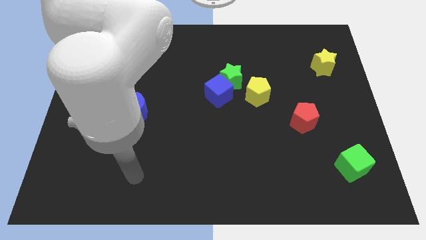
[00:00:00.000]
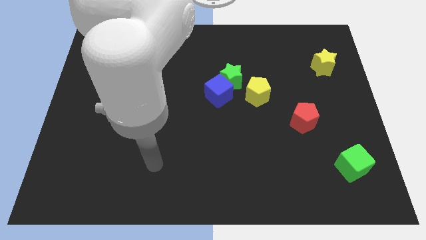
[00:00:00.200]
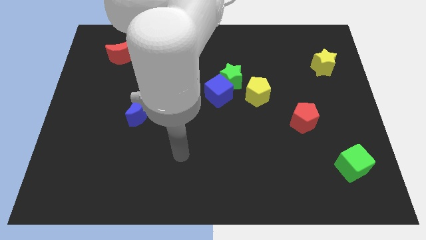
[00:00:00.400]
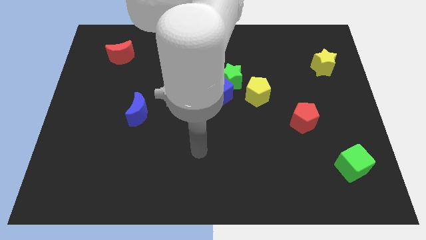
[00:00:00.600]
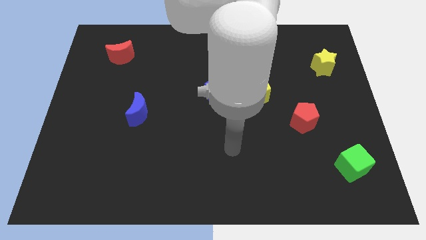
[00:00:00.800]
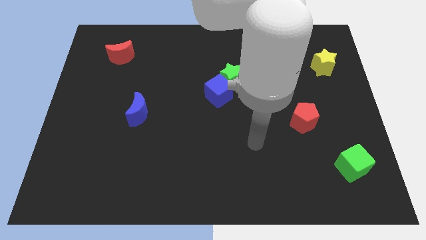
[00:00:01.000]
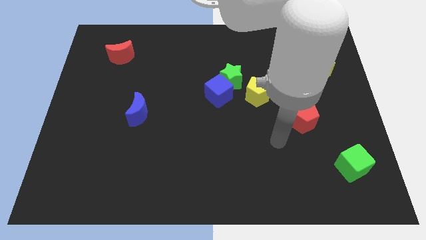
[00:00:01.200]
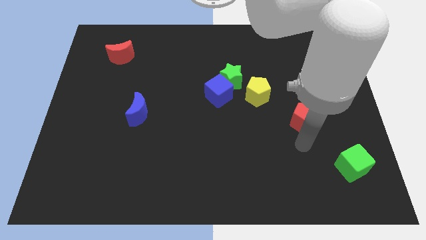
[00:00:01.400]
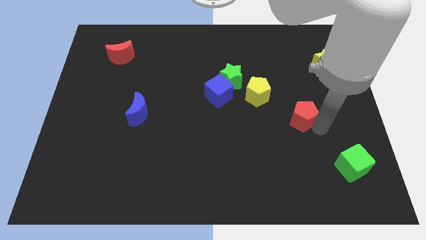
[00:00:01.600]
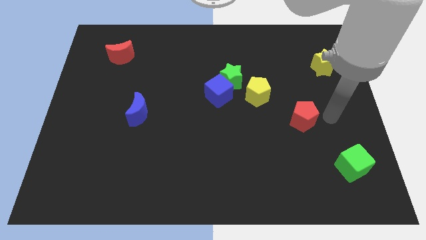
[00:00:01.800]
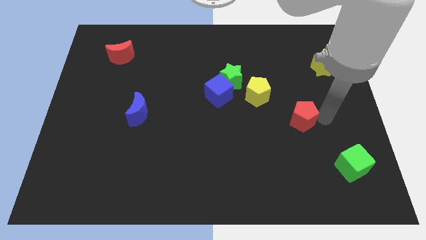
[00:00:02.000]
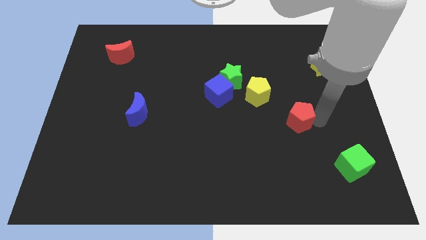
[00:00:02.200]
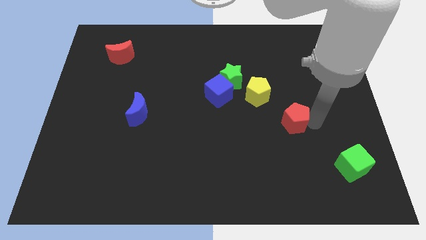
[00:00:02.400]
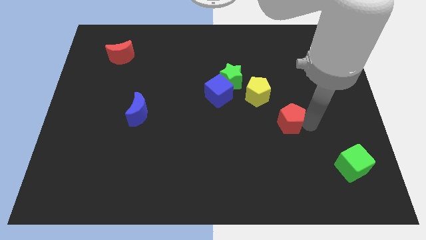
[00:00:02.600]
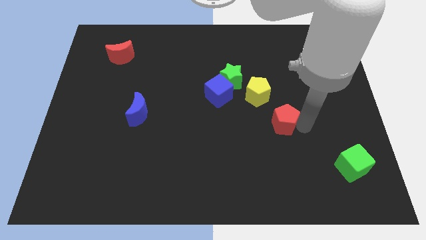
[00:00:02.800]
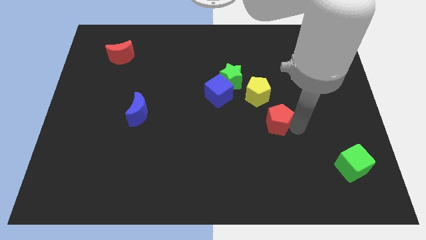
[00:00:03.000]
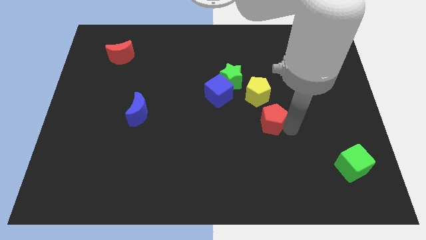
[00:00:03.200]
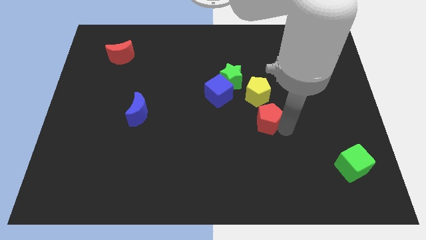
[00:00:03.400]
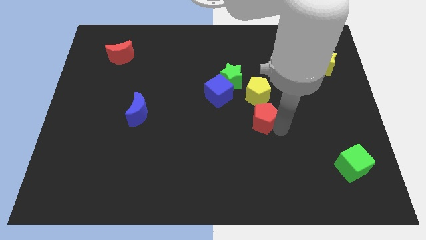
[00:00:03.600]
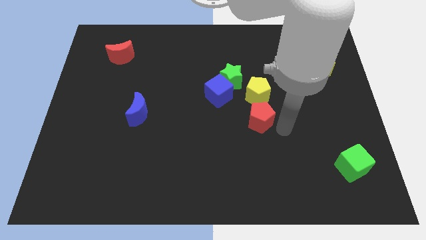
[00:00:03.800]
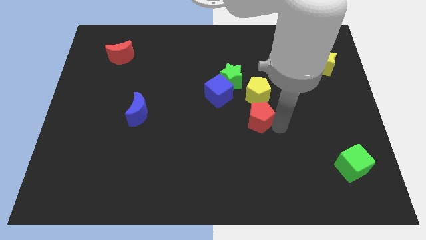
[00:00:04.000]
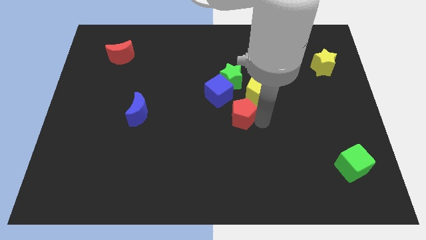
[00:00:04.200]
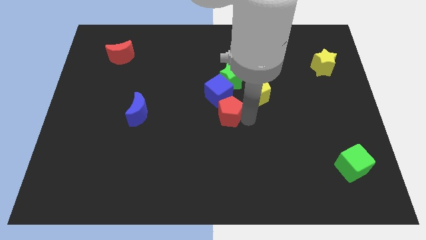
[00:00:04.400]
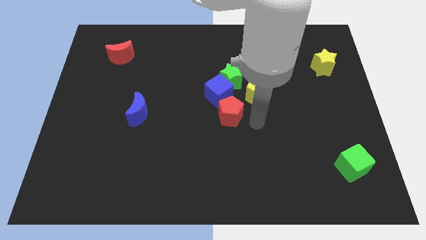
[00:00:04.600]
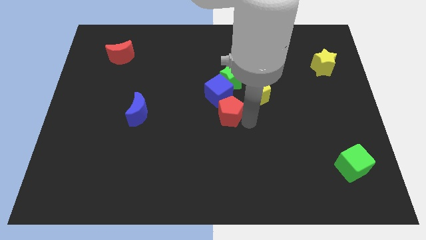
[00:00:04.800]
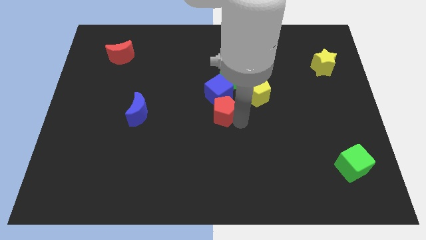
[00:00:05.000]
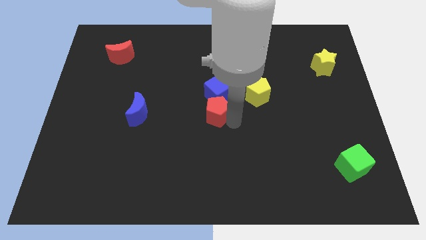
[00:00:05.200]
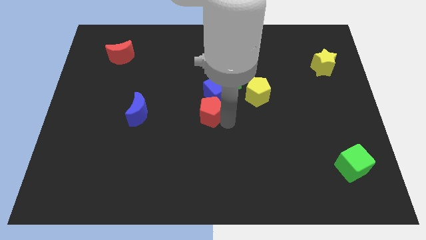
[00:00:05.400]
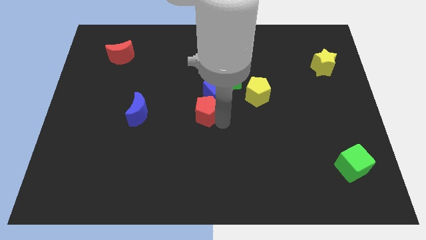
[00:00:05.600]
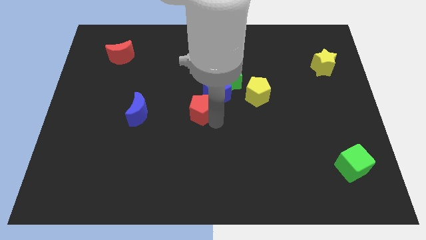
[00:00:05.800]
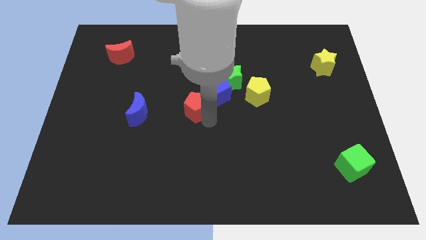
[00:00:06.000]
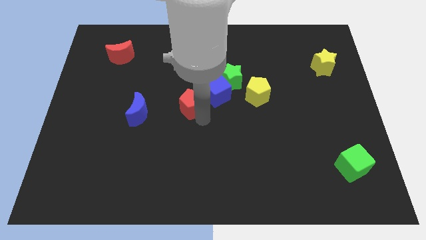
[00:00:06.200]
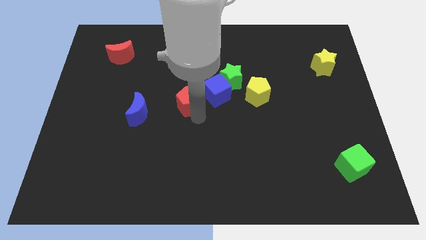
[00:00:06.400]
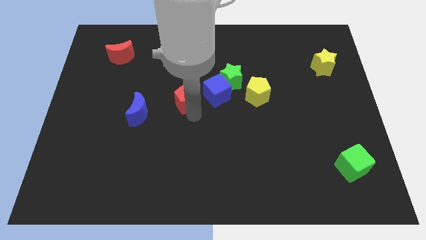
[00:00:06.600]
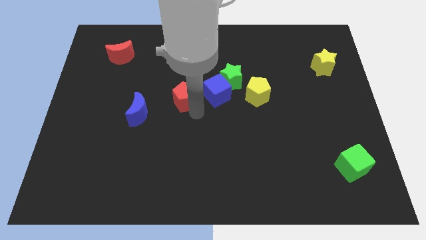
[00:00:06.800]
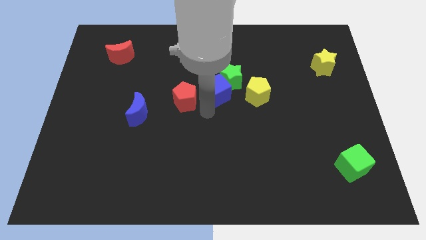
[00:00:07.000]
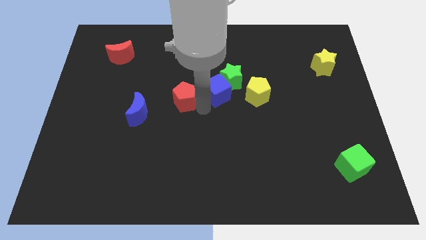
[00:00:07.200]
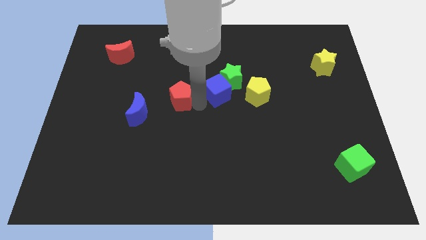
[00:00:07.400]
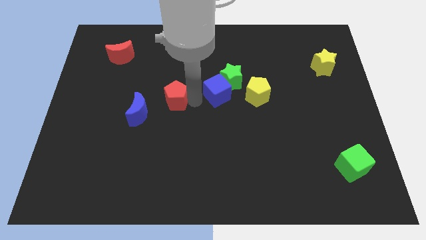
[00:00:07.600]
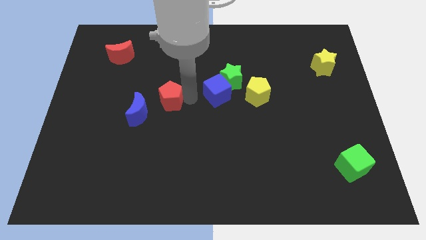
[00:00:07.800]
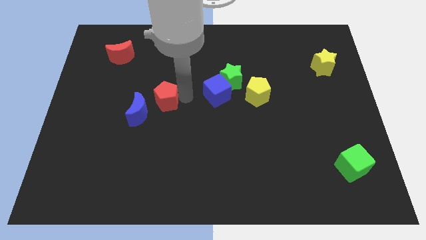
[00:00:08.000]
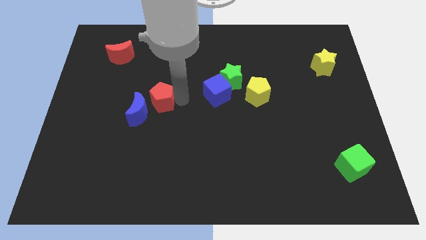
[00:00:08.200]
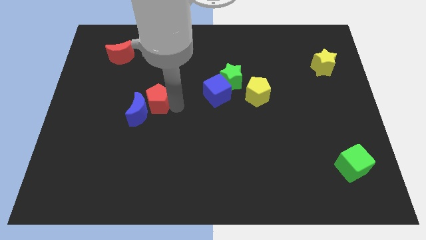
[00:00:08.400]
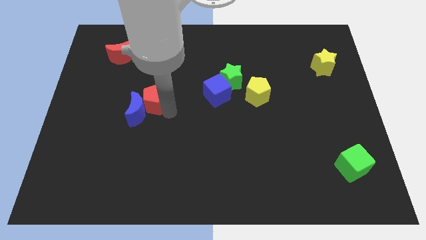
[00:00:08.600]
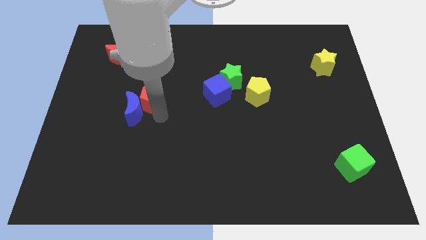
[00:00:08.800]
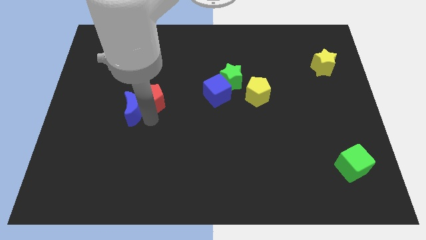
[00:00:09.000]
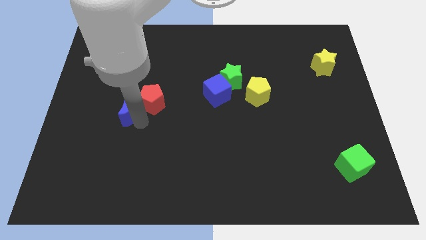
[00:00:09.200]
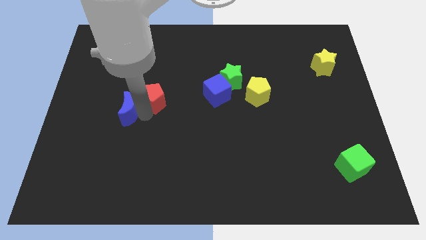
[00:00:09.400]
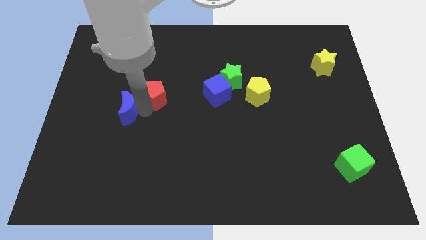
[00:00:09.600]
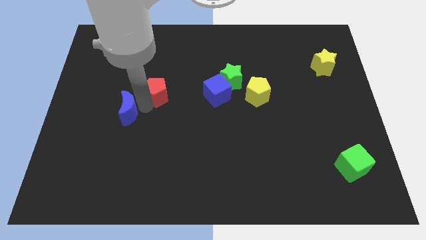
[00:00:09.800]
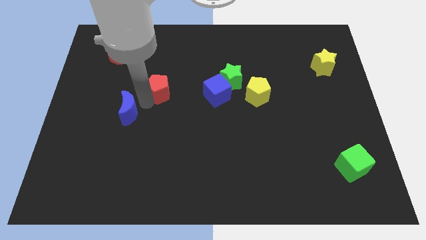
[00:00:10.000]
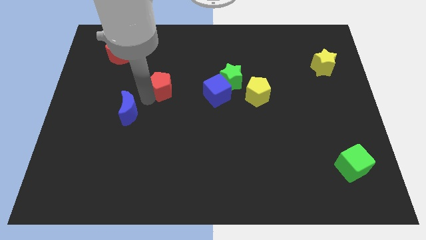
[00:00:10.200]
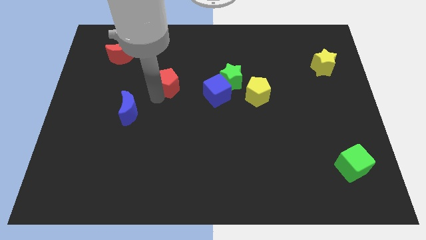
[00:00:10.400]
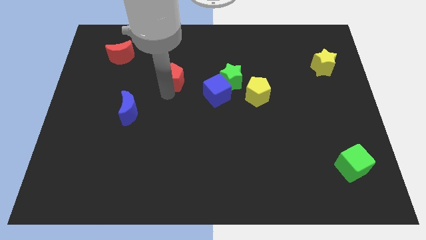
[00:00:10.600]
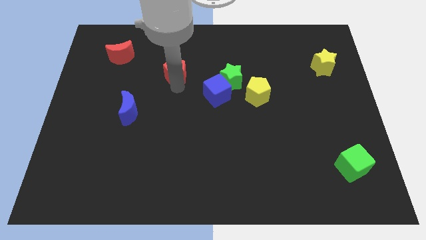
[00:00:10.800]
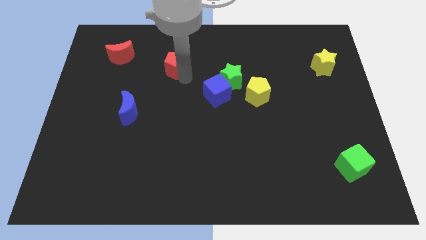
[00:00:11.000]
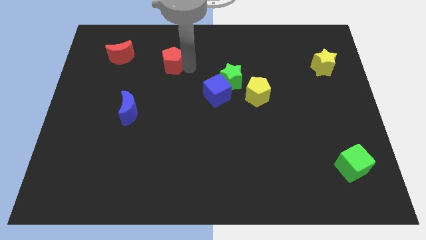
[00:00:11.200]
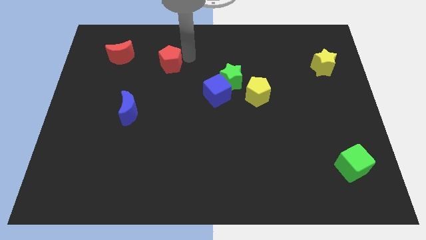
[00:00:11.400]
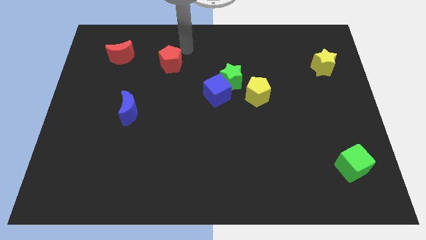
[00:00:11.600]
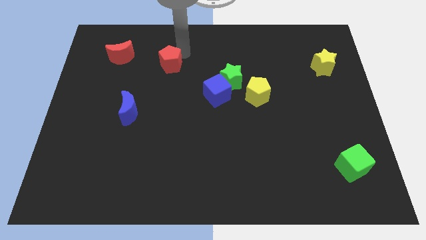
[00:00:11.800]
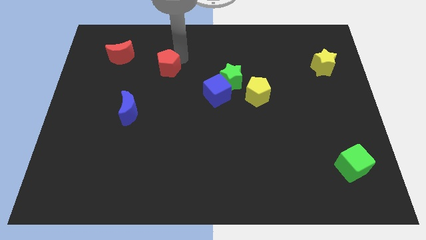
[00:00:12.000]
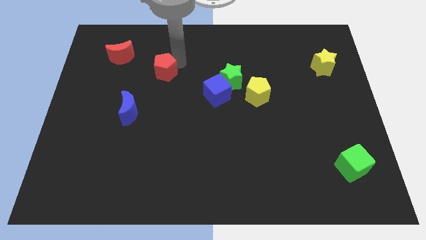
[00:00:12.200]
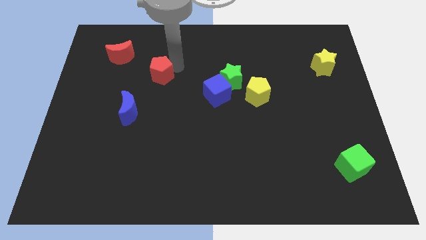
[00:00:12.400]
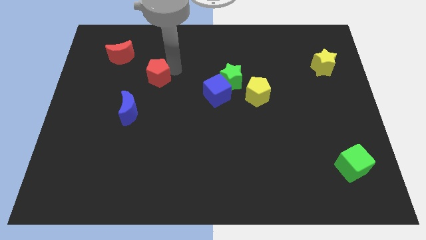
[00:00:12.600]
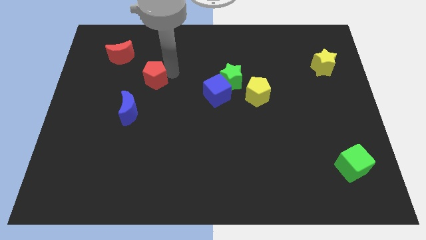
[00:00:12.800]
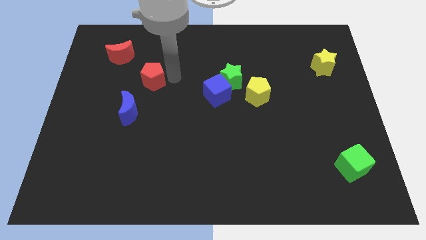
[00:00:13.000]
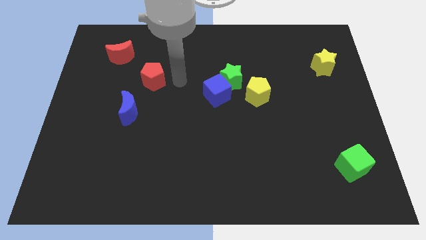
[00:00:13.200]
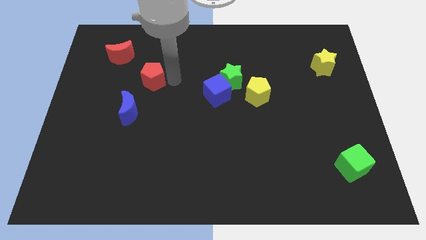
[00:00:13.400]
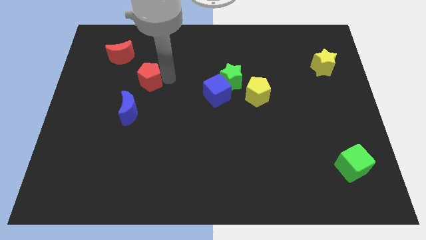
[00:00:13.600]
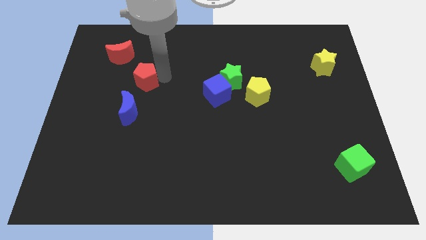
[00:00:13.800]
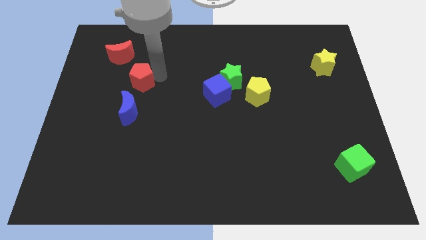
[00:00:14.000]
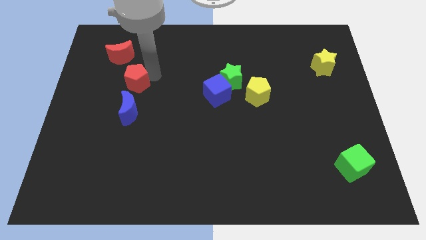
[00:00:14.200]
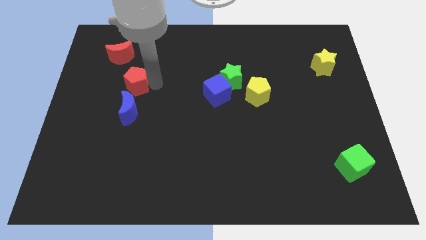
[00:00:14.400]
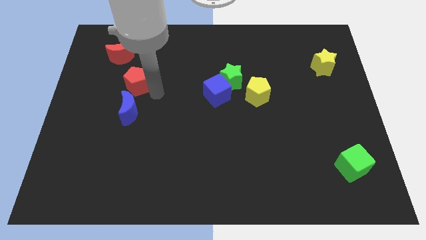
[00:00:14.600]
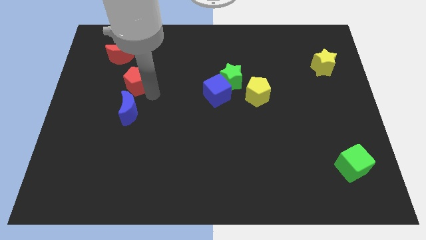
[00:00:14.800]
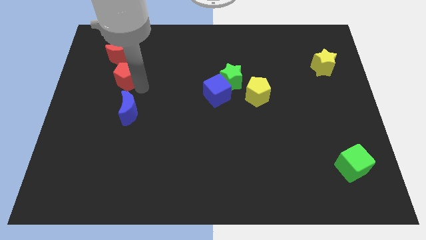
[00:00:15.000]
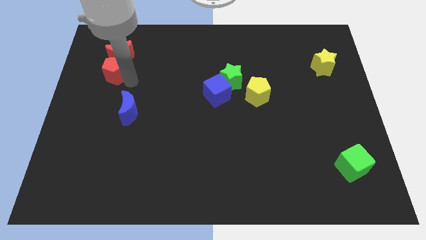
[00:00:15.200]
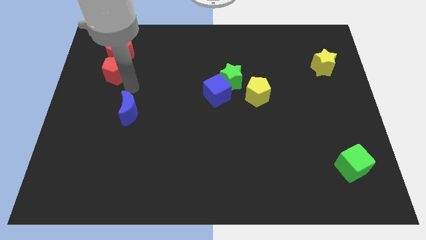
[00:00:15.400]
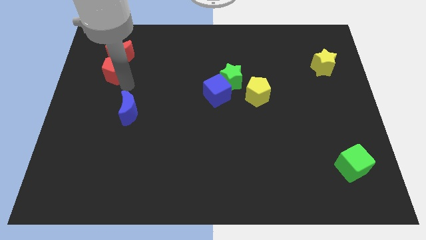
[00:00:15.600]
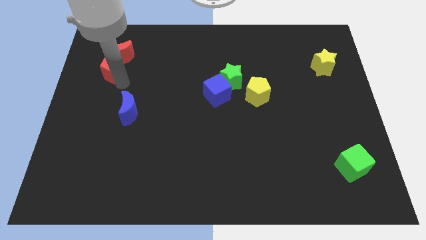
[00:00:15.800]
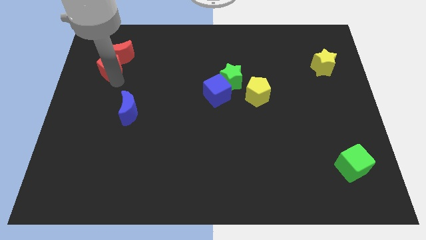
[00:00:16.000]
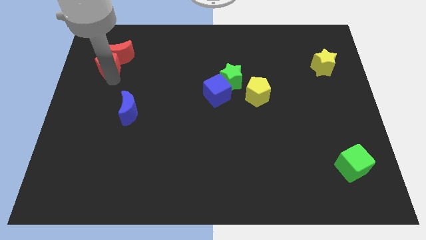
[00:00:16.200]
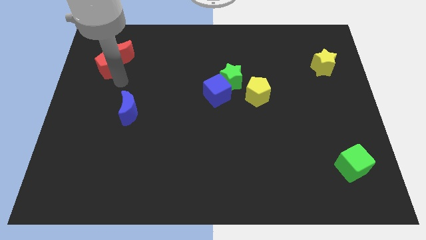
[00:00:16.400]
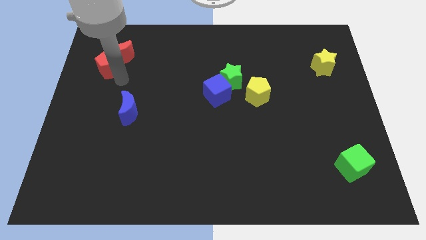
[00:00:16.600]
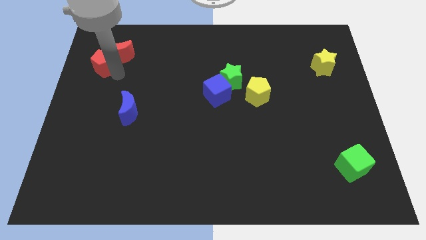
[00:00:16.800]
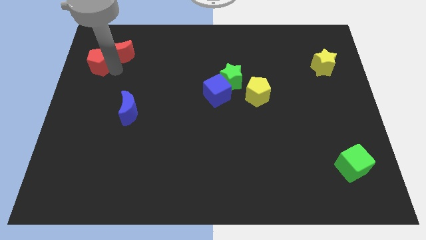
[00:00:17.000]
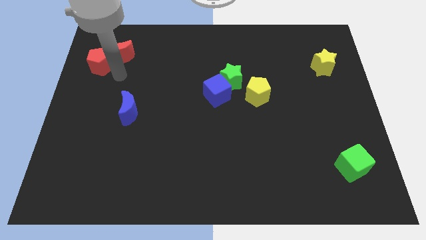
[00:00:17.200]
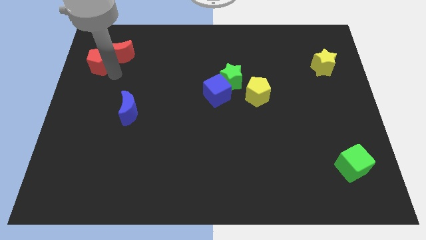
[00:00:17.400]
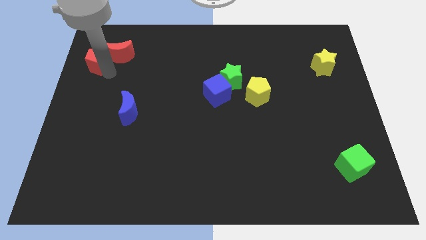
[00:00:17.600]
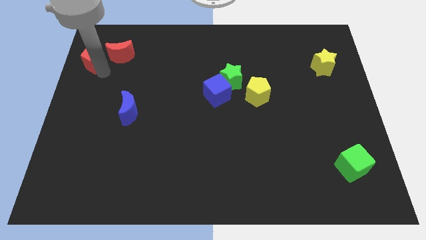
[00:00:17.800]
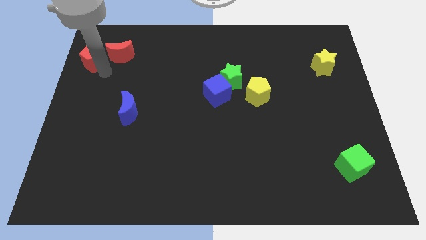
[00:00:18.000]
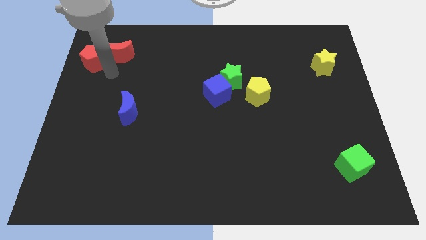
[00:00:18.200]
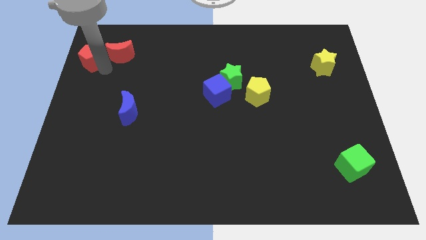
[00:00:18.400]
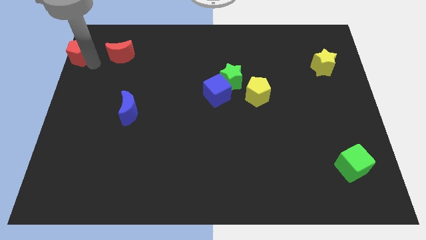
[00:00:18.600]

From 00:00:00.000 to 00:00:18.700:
move the red pentagon to the top left corner
